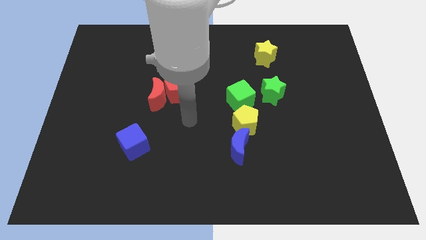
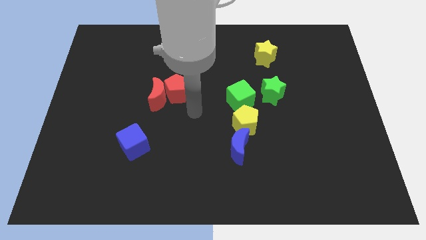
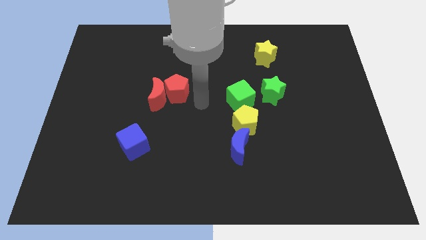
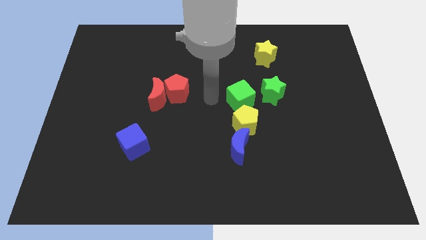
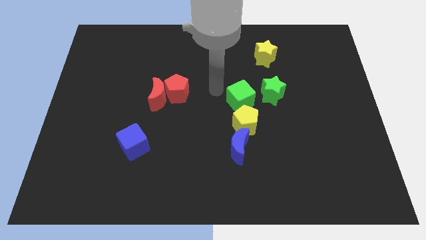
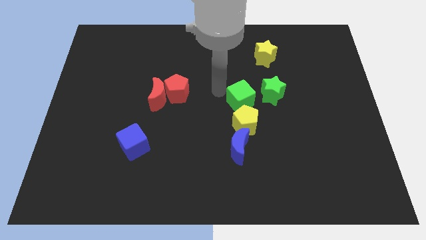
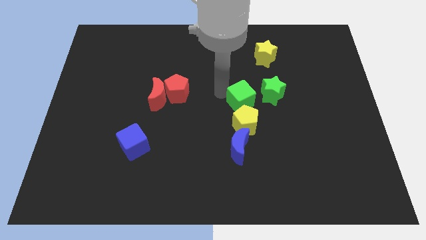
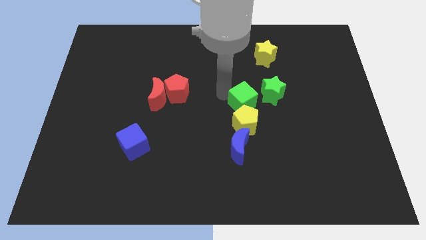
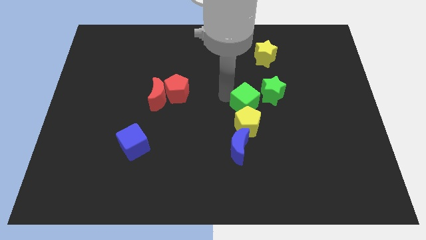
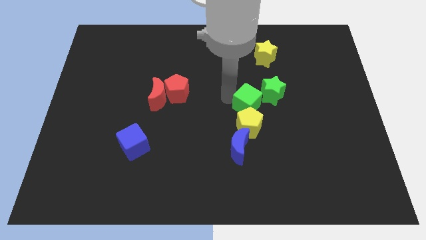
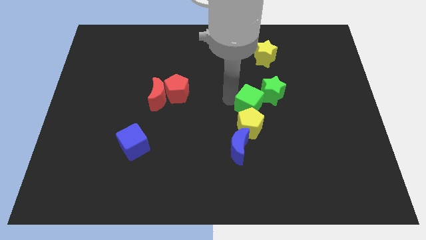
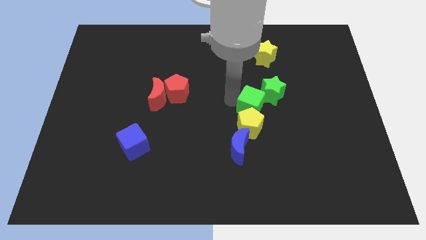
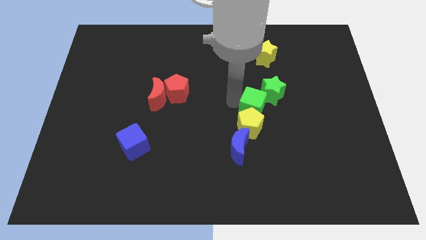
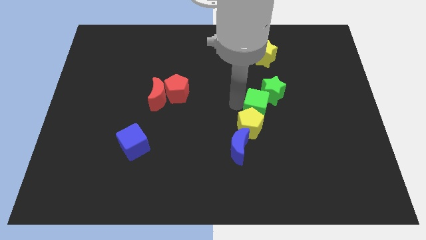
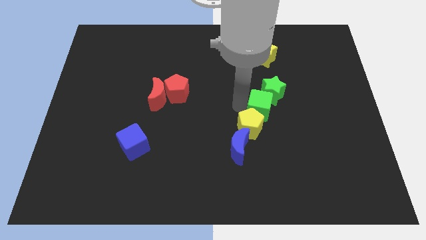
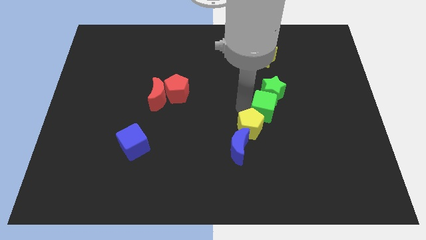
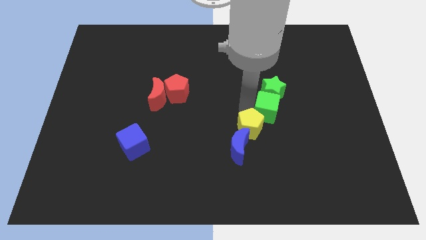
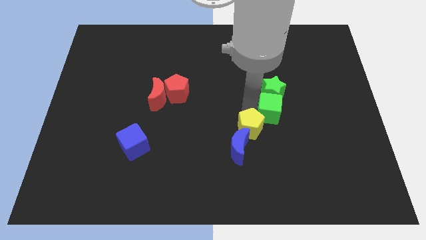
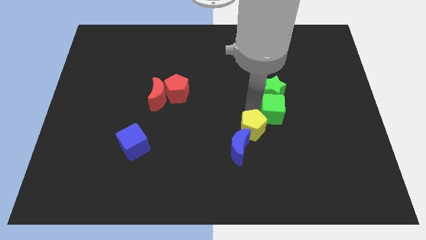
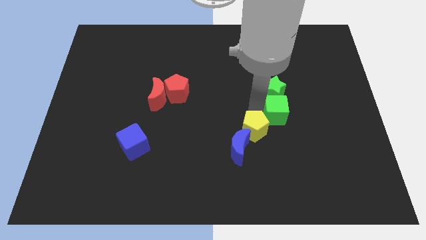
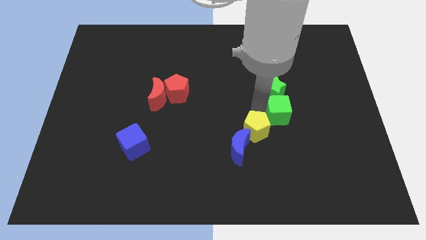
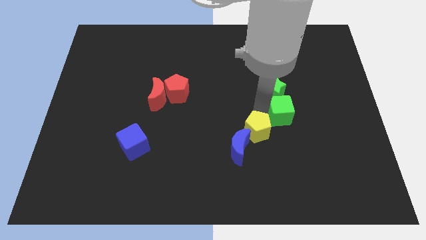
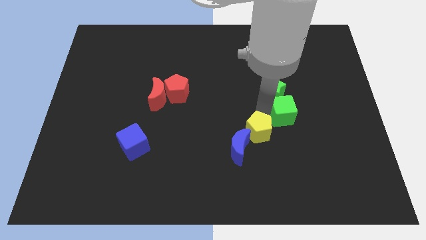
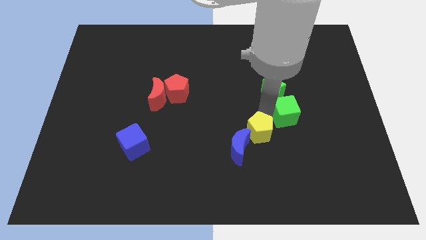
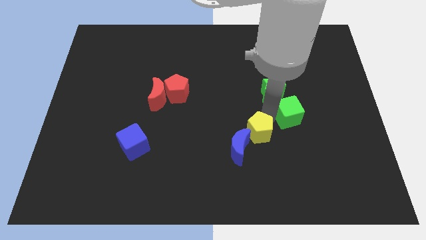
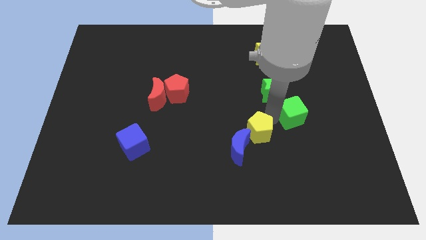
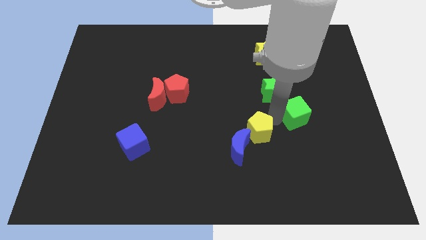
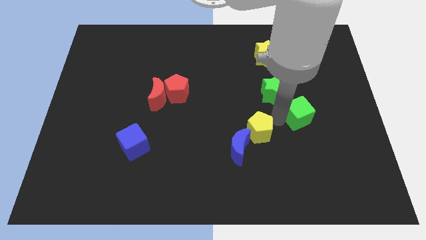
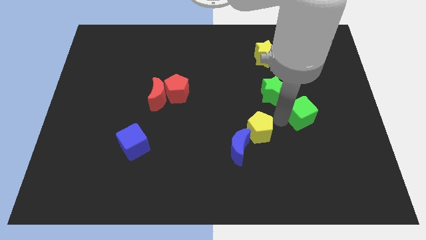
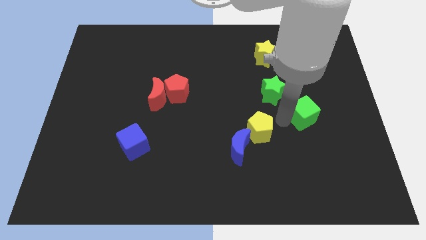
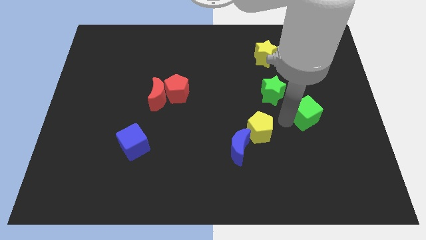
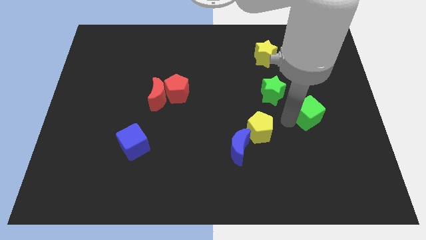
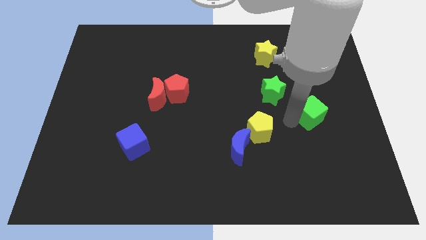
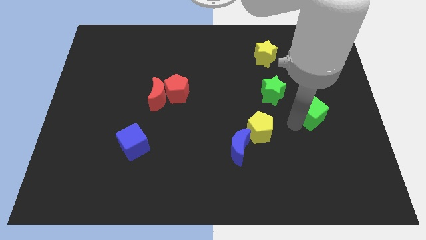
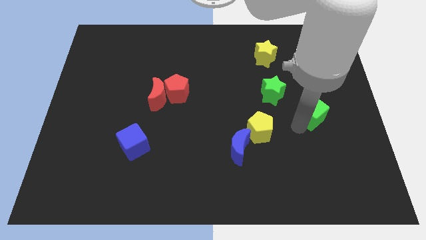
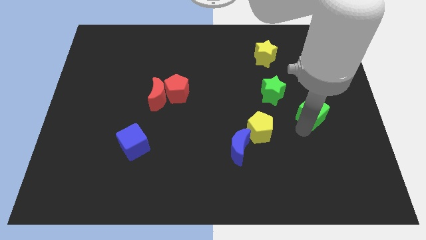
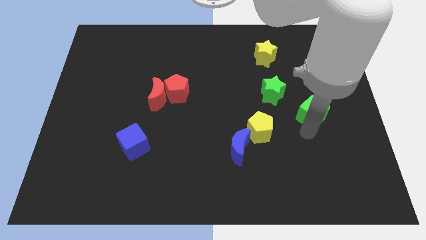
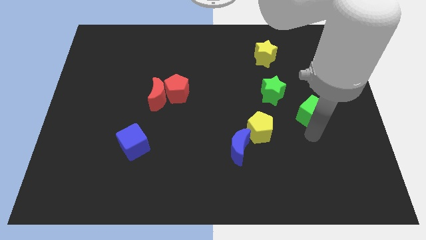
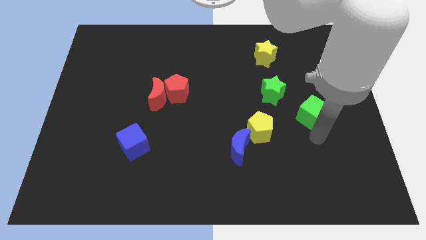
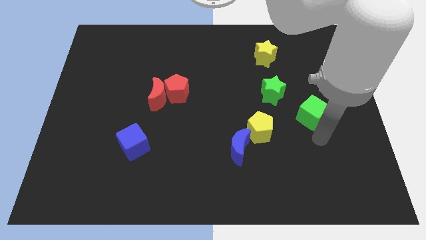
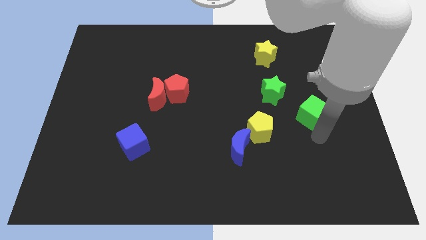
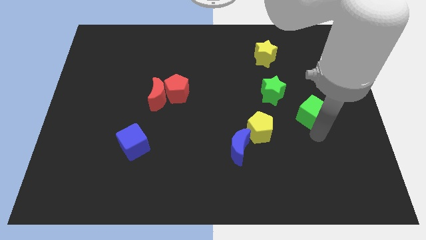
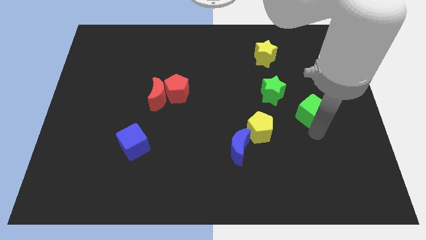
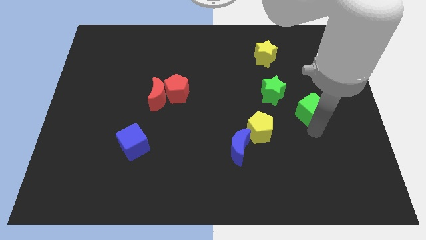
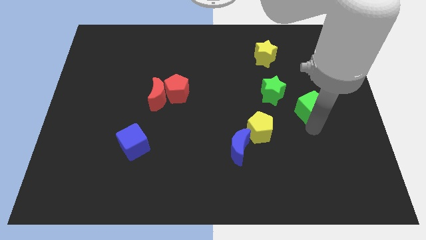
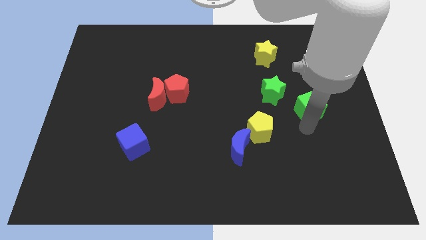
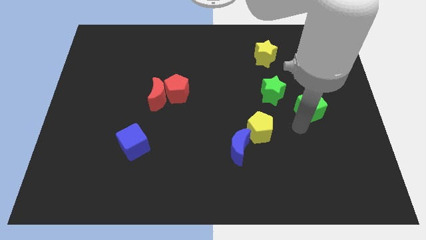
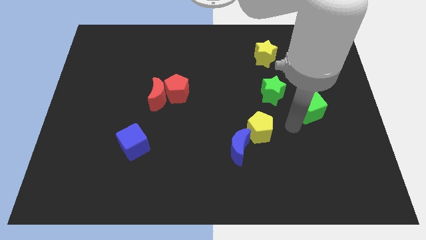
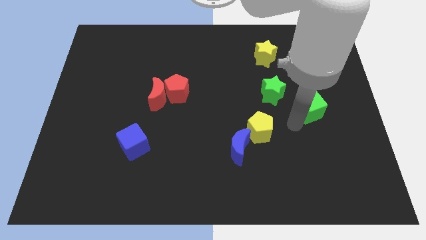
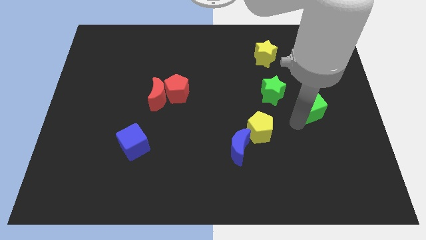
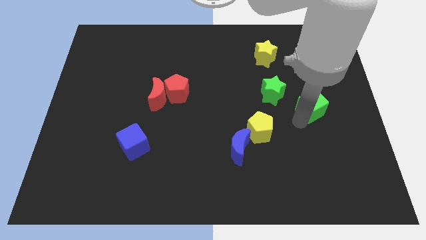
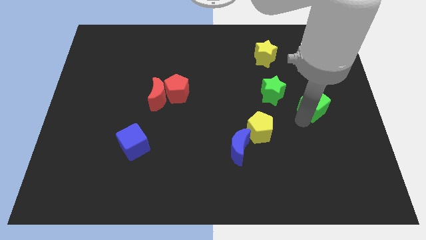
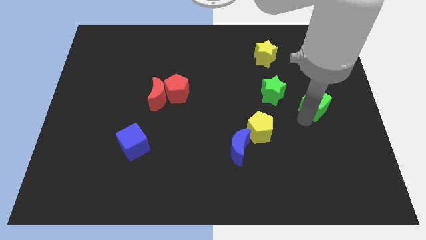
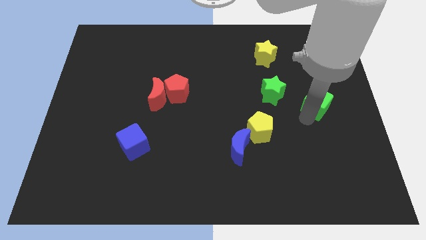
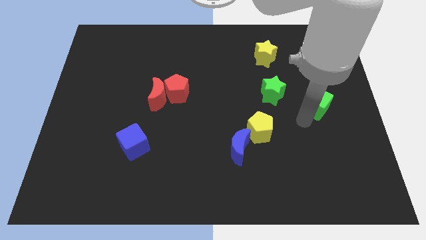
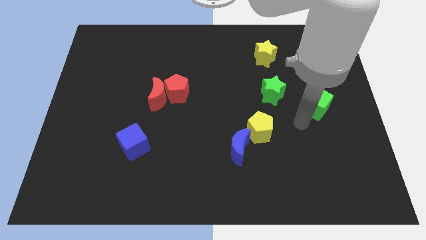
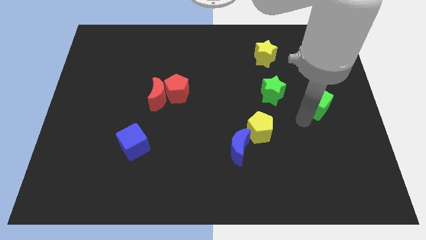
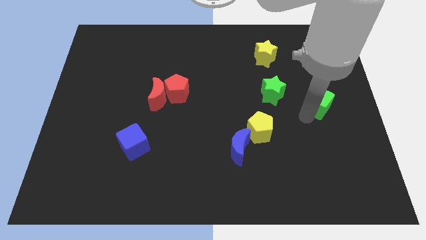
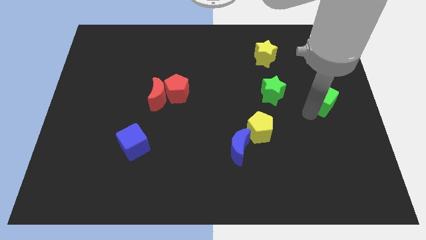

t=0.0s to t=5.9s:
move the green cube to the right side

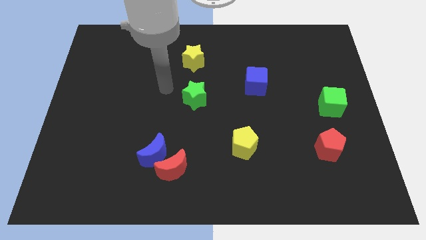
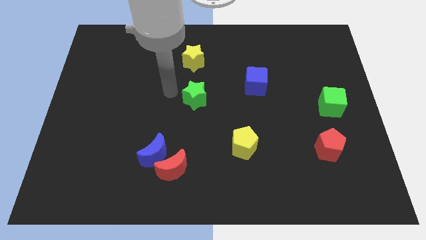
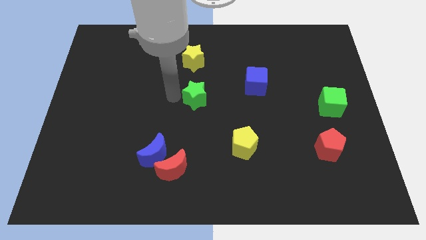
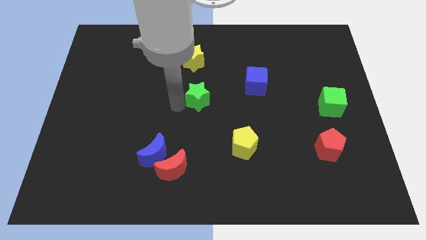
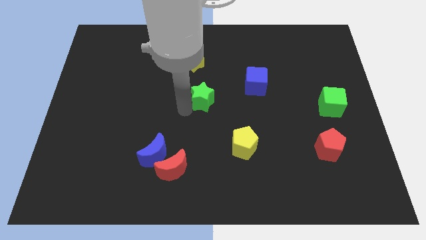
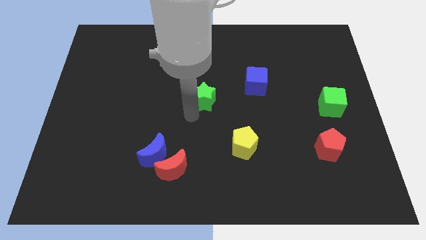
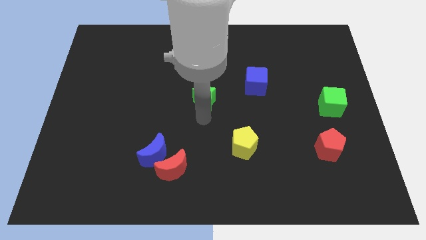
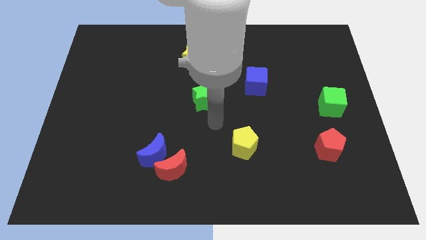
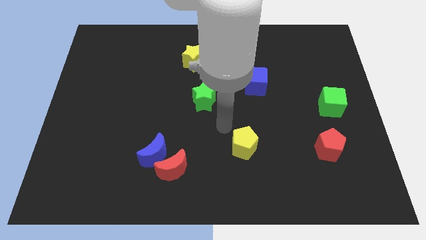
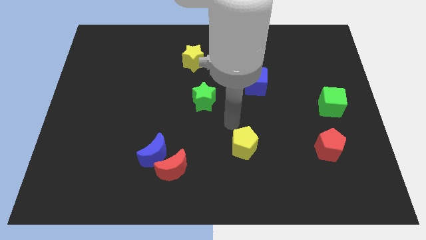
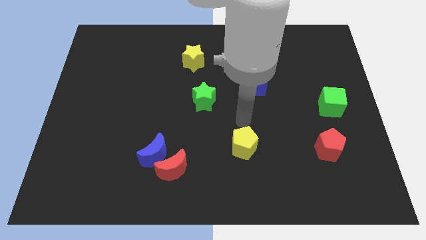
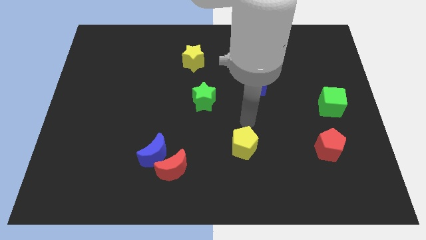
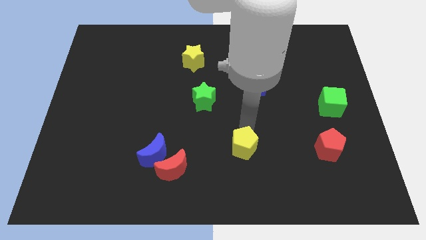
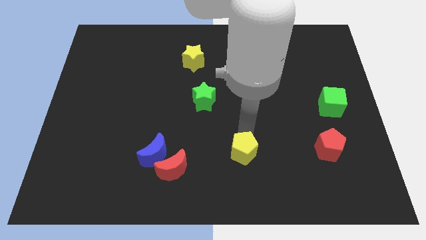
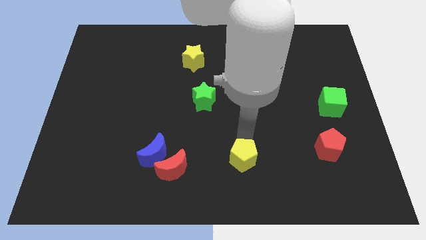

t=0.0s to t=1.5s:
push the yellow pentagon to the bottom side
